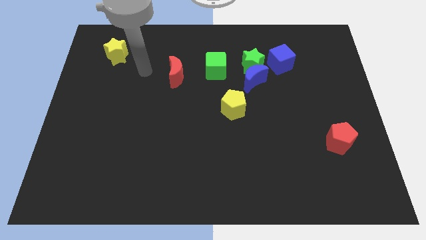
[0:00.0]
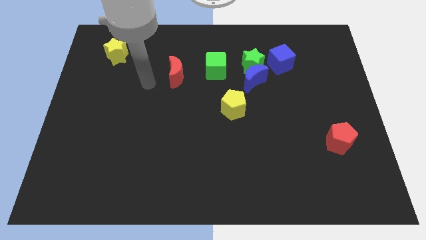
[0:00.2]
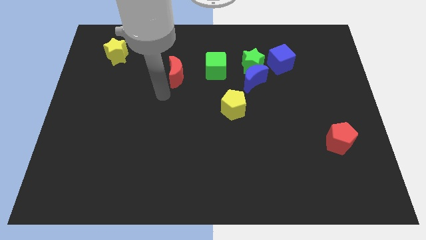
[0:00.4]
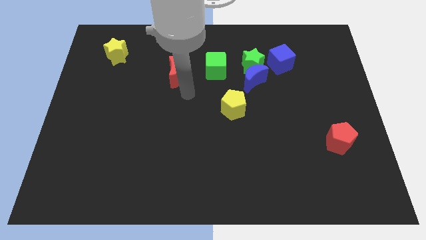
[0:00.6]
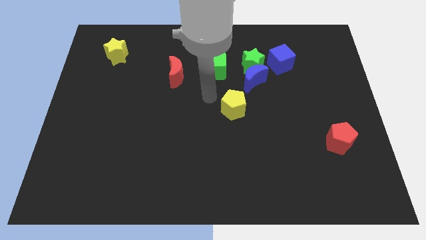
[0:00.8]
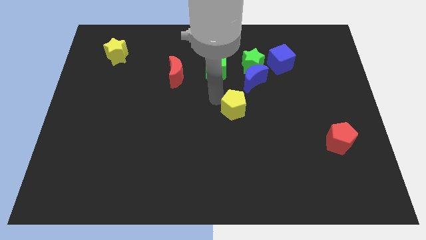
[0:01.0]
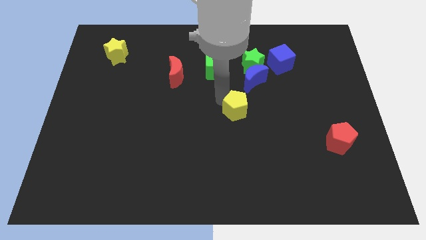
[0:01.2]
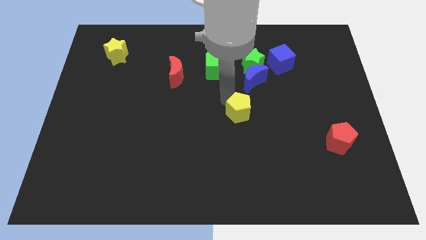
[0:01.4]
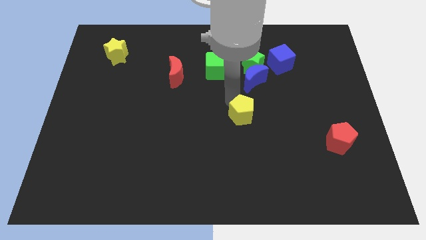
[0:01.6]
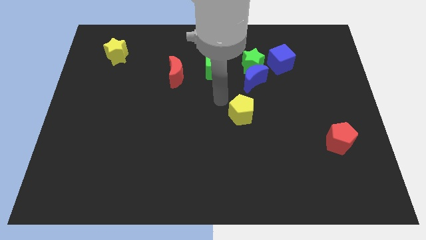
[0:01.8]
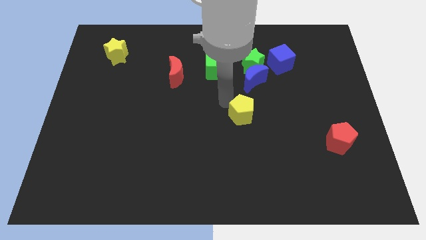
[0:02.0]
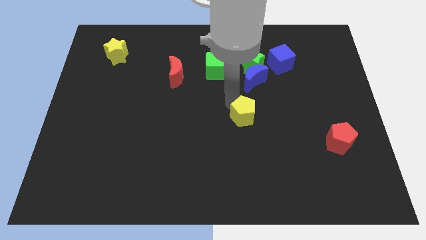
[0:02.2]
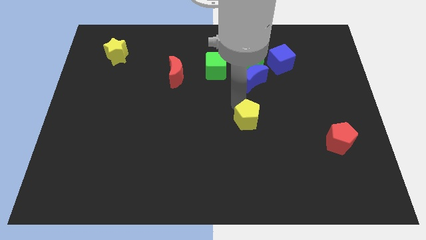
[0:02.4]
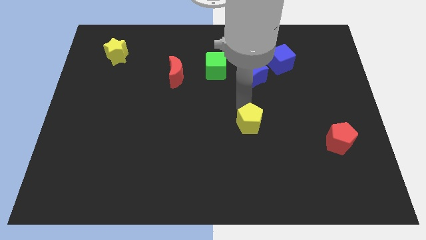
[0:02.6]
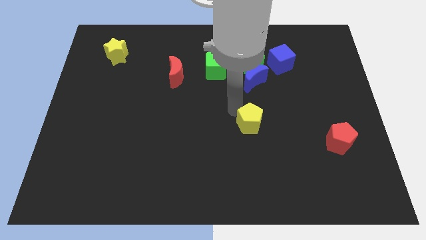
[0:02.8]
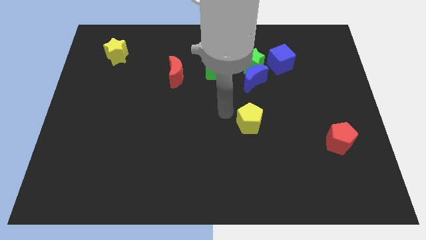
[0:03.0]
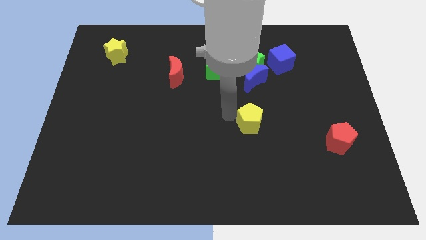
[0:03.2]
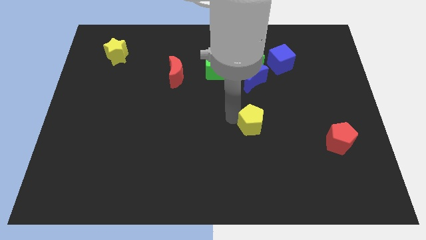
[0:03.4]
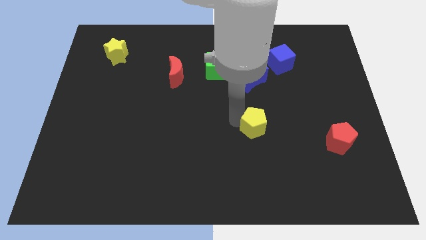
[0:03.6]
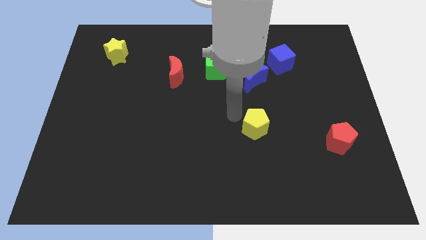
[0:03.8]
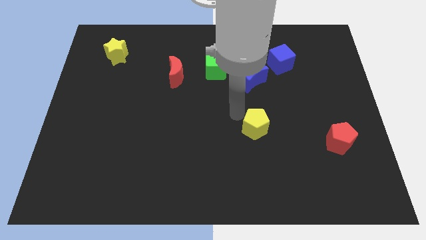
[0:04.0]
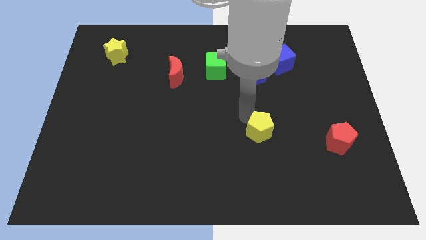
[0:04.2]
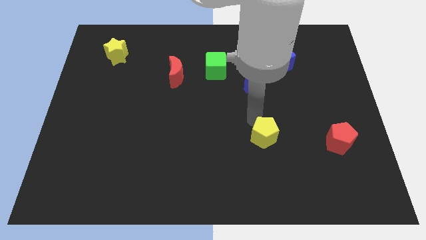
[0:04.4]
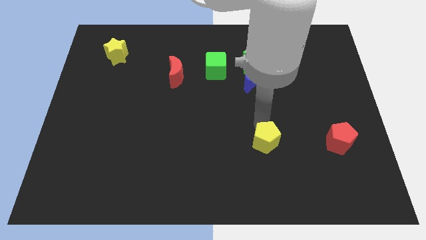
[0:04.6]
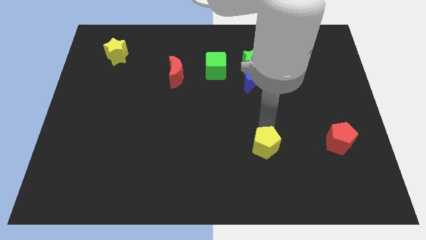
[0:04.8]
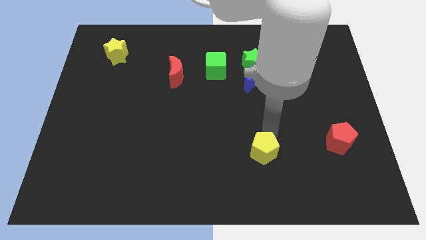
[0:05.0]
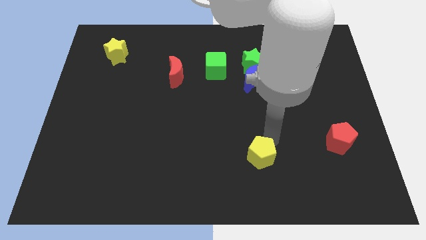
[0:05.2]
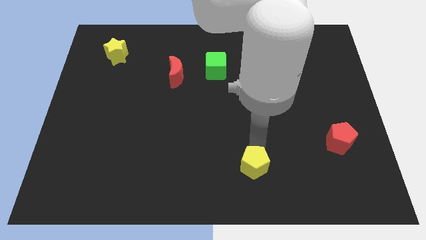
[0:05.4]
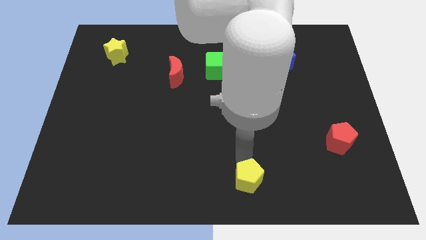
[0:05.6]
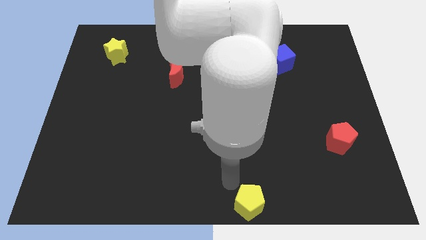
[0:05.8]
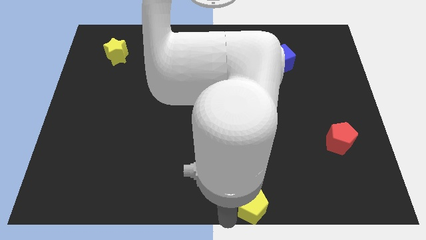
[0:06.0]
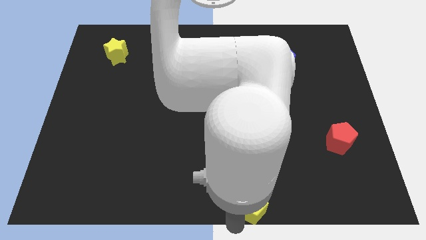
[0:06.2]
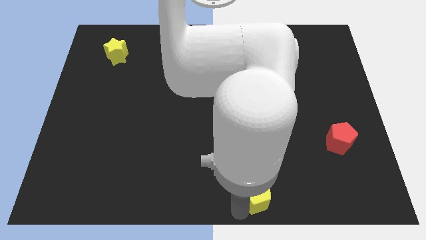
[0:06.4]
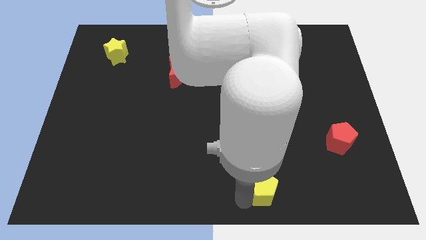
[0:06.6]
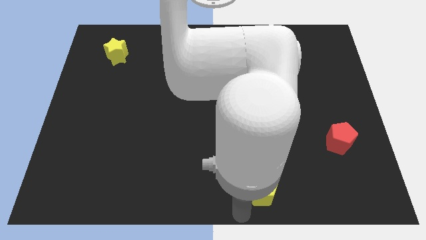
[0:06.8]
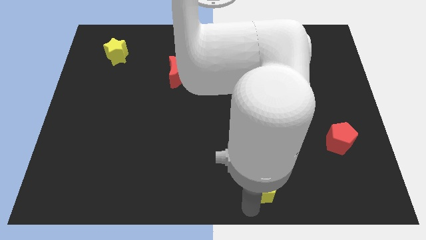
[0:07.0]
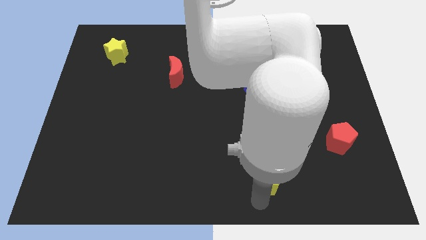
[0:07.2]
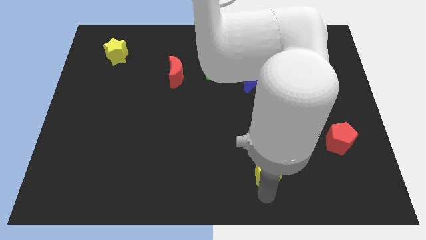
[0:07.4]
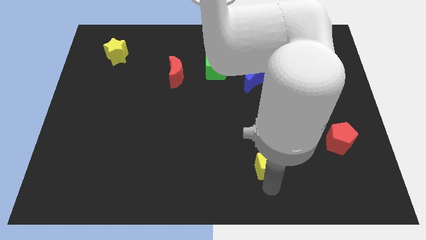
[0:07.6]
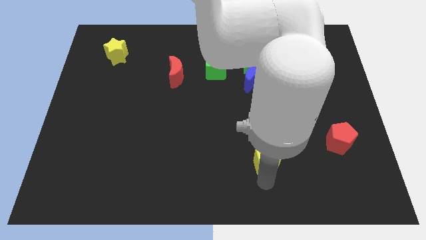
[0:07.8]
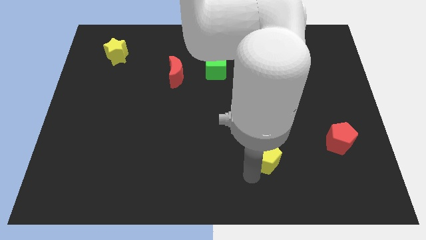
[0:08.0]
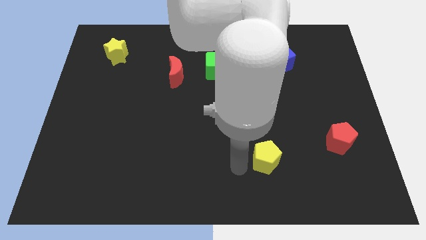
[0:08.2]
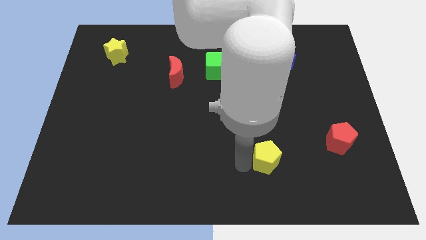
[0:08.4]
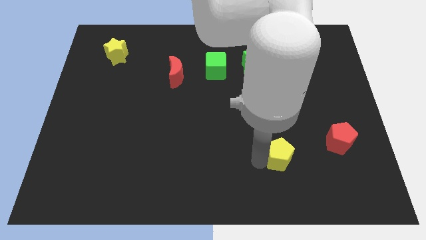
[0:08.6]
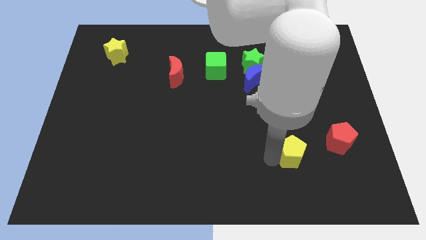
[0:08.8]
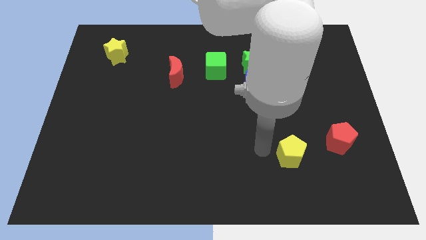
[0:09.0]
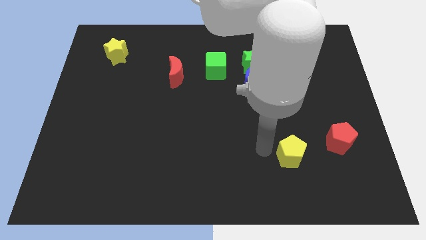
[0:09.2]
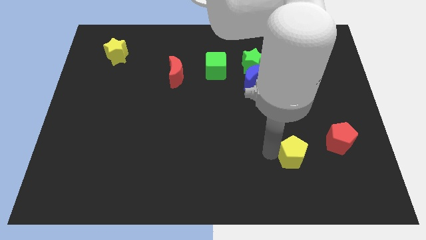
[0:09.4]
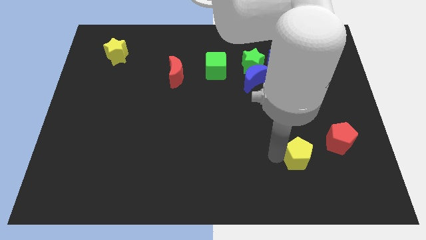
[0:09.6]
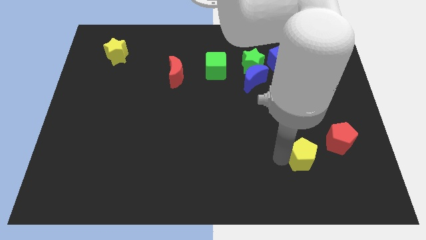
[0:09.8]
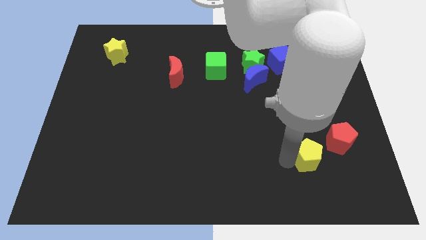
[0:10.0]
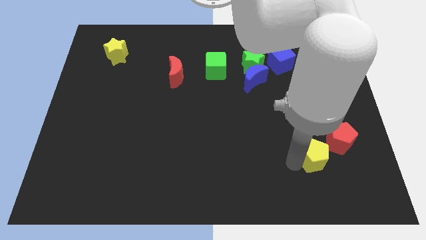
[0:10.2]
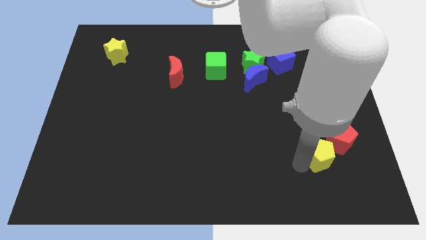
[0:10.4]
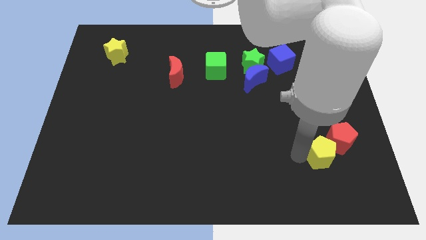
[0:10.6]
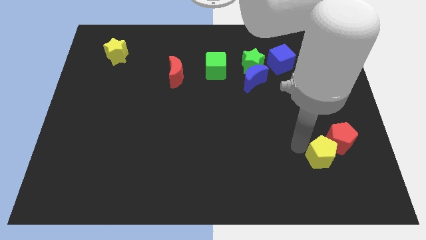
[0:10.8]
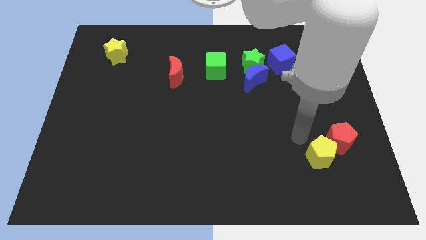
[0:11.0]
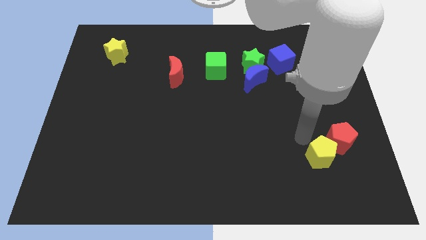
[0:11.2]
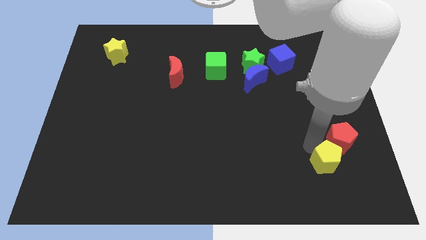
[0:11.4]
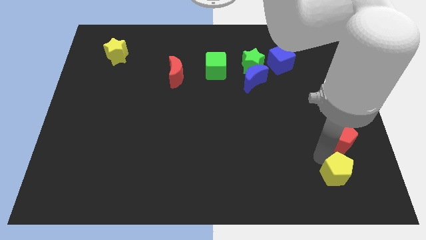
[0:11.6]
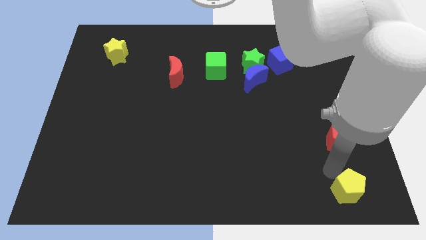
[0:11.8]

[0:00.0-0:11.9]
slide the yellow pentagon to the lower right corner
